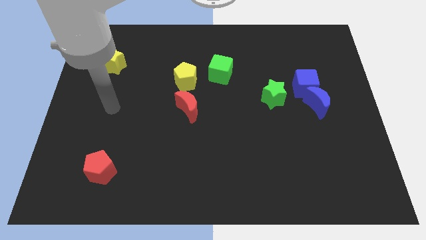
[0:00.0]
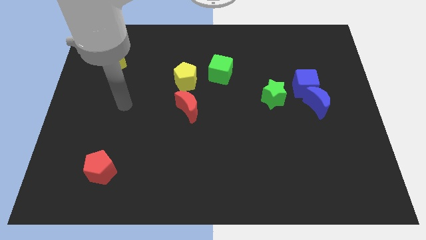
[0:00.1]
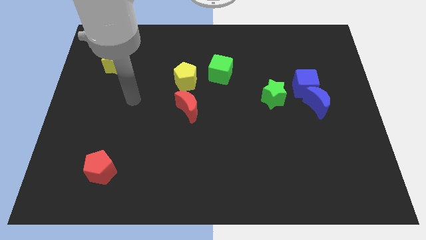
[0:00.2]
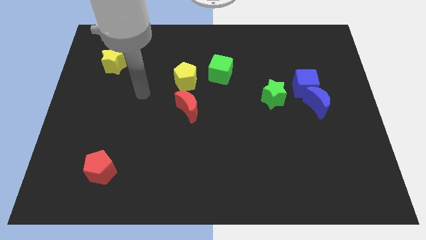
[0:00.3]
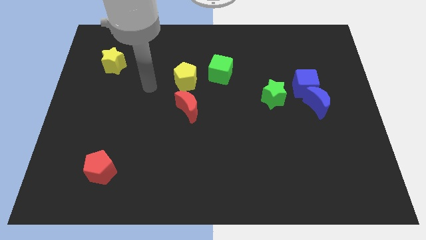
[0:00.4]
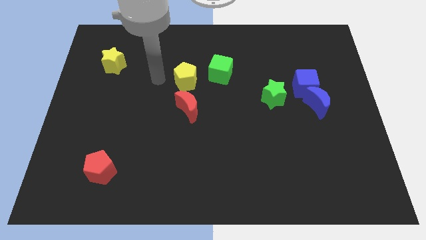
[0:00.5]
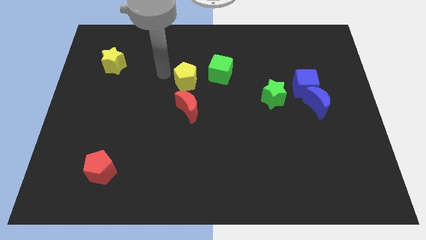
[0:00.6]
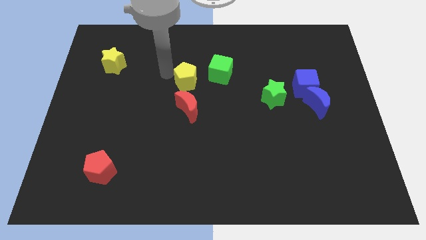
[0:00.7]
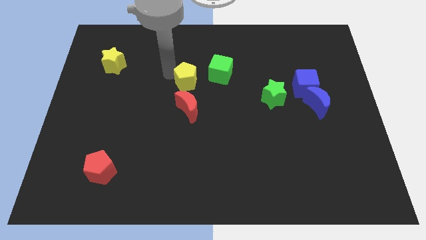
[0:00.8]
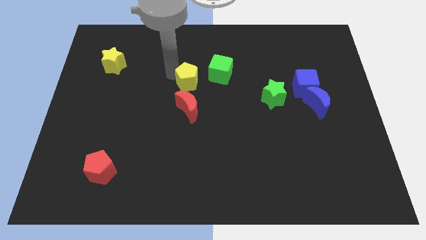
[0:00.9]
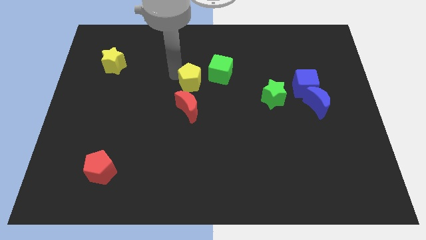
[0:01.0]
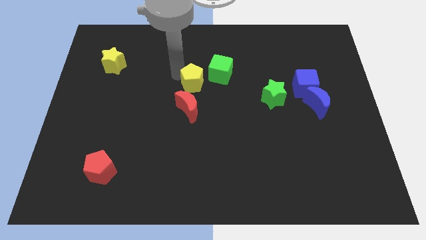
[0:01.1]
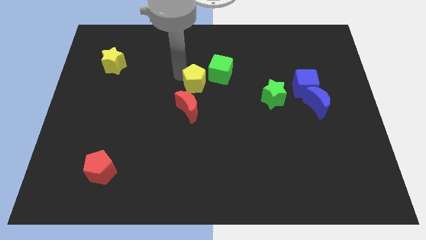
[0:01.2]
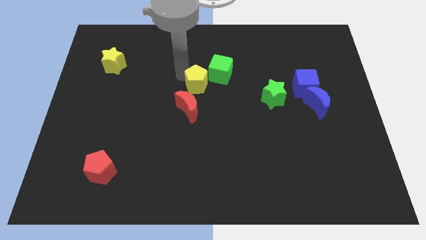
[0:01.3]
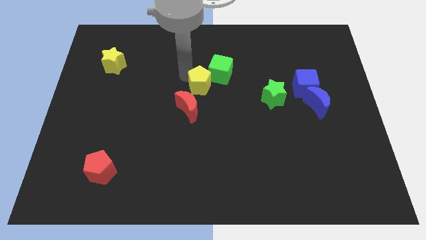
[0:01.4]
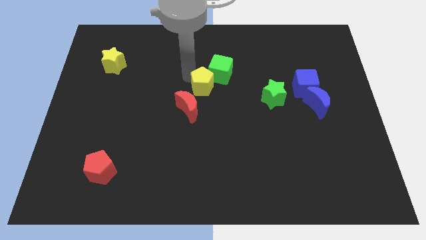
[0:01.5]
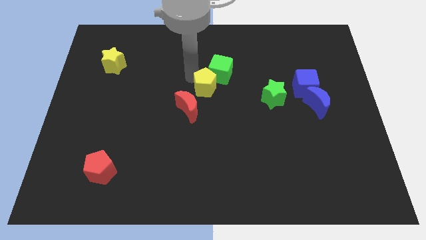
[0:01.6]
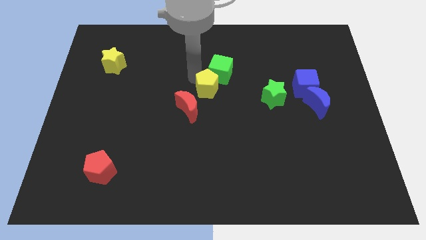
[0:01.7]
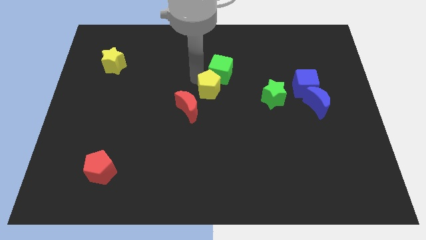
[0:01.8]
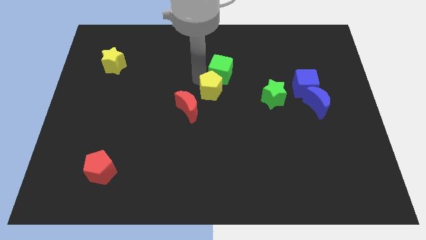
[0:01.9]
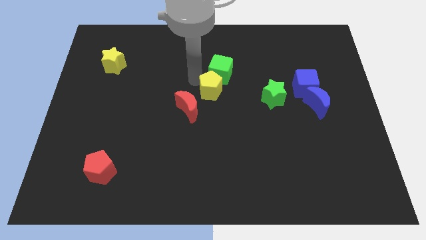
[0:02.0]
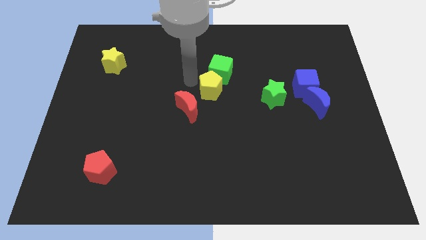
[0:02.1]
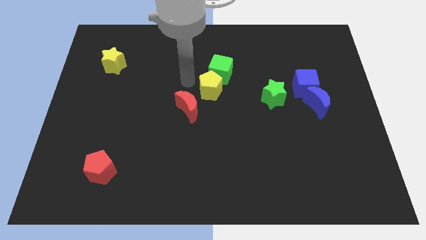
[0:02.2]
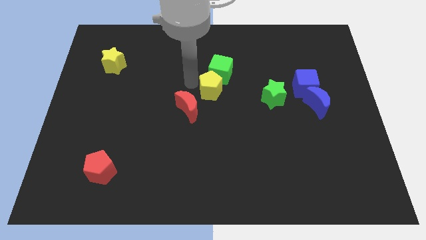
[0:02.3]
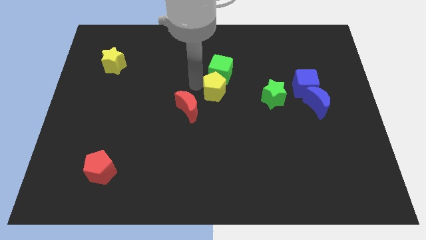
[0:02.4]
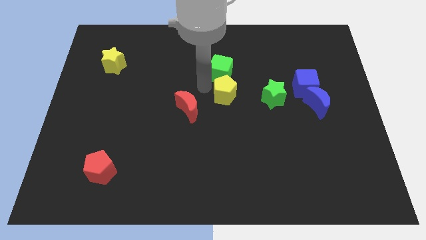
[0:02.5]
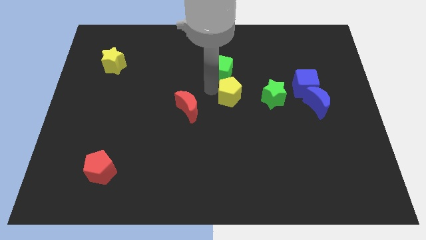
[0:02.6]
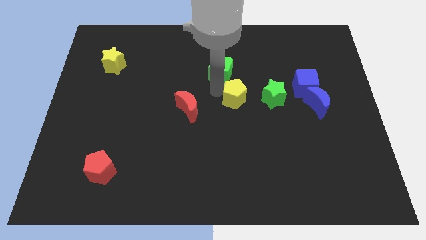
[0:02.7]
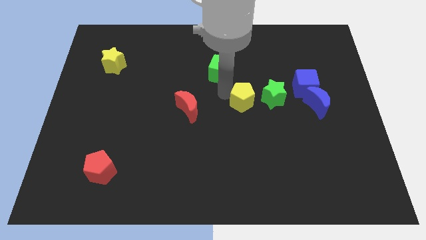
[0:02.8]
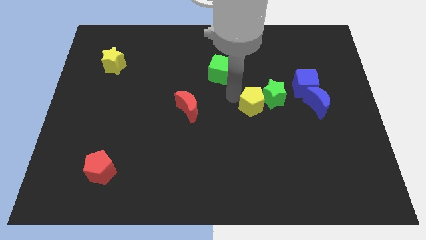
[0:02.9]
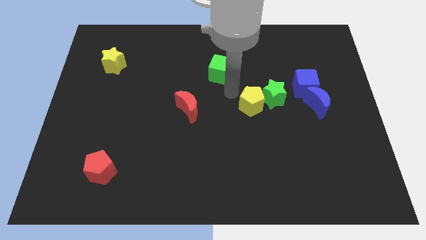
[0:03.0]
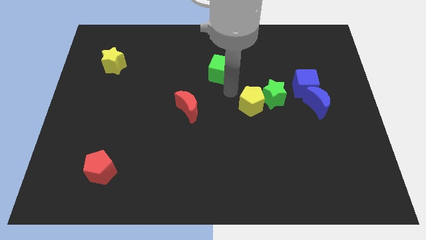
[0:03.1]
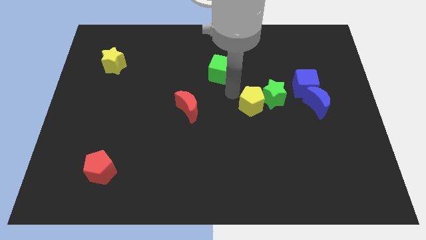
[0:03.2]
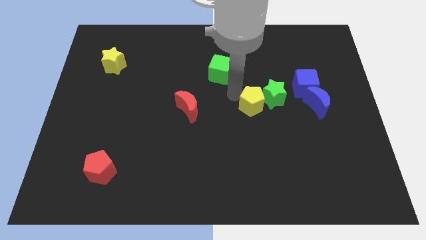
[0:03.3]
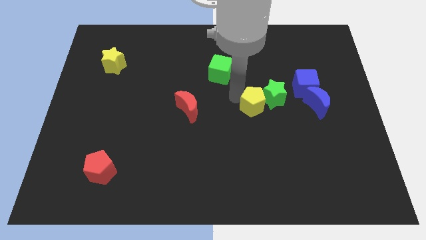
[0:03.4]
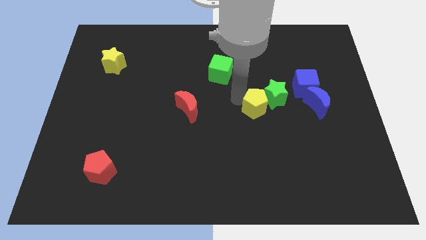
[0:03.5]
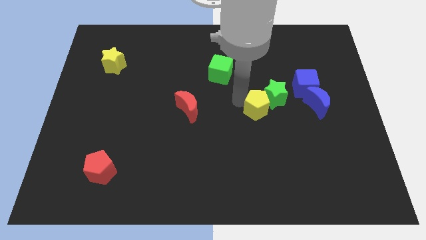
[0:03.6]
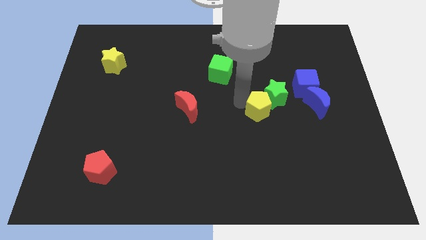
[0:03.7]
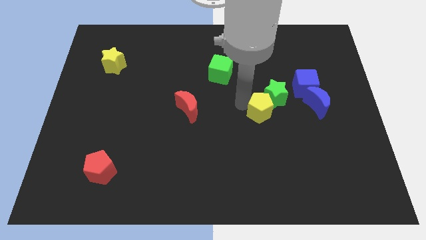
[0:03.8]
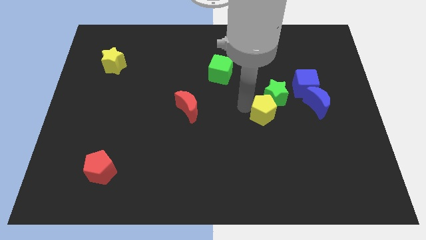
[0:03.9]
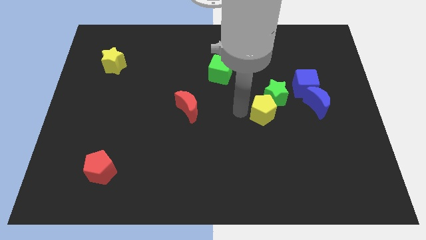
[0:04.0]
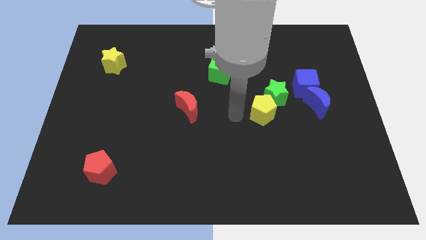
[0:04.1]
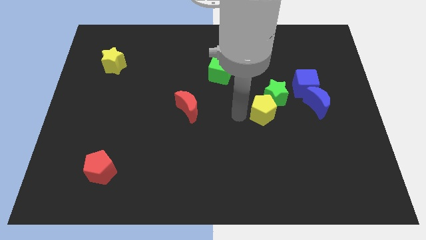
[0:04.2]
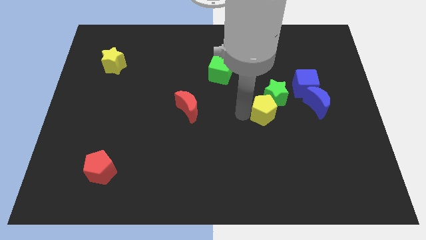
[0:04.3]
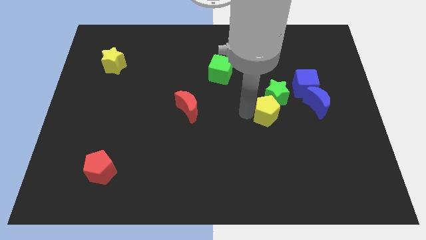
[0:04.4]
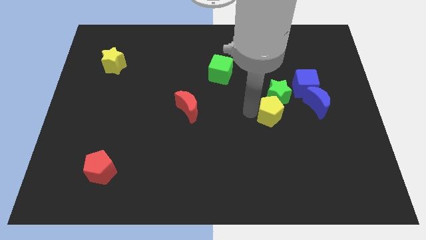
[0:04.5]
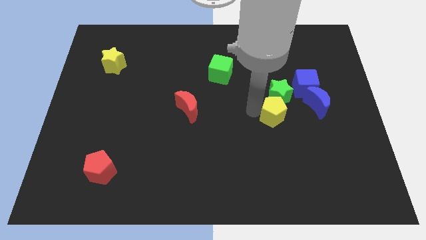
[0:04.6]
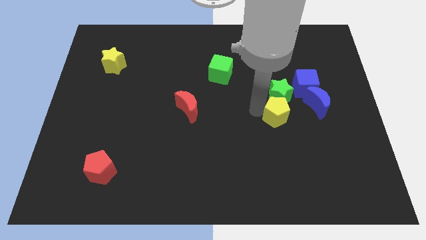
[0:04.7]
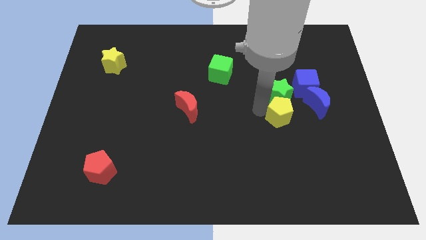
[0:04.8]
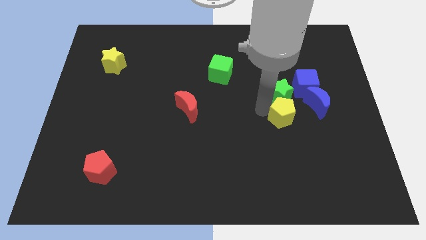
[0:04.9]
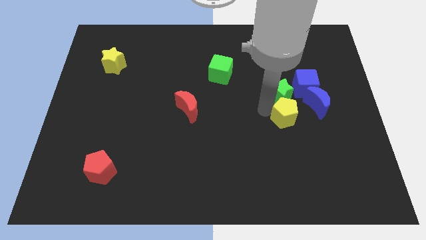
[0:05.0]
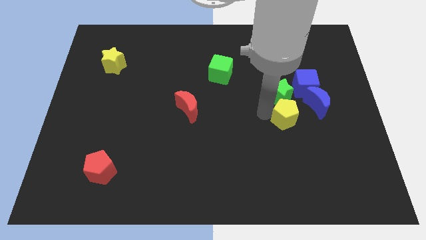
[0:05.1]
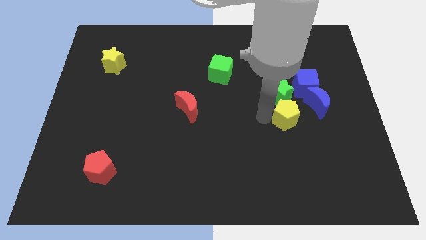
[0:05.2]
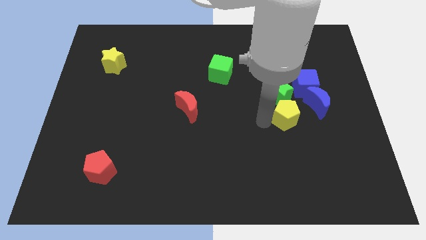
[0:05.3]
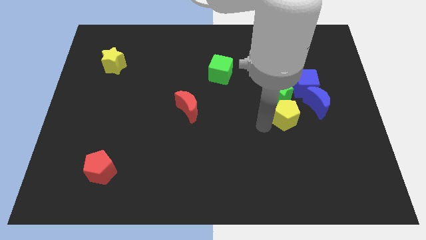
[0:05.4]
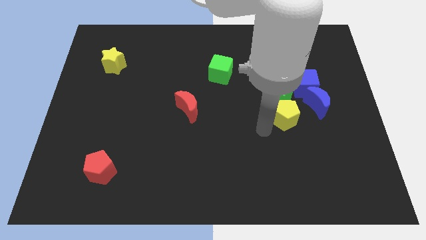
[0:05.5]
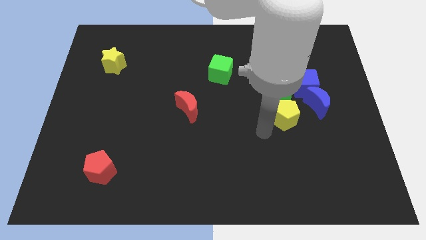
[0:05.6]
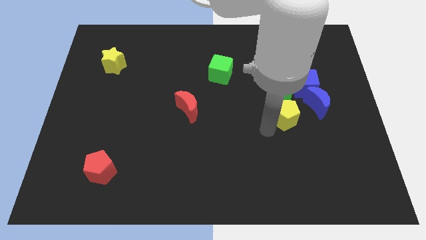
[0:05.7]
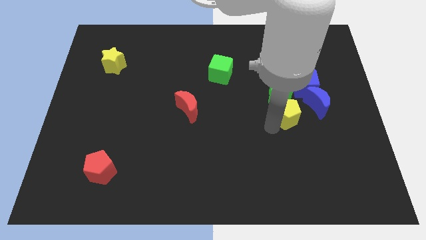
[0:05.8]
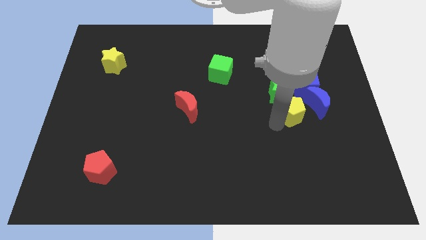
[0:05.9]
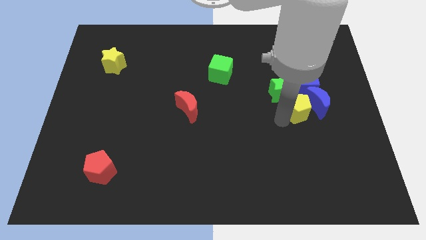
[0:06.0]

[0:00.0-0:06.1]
slide the yellow pentagon next to the blue moon

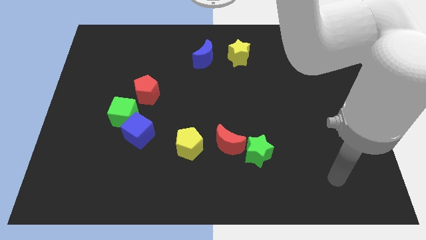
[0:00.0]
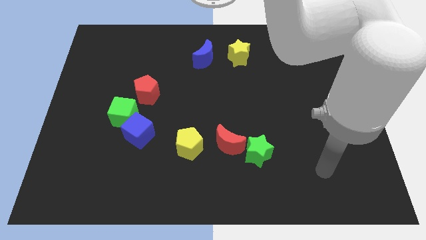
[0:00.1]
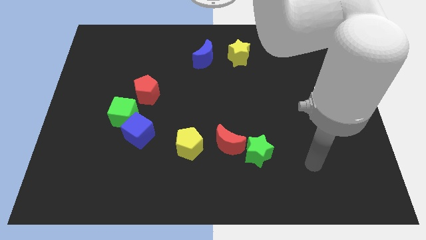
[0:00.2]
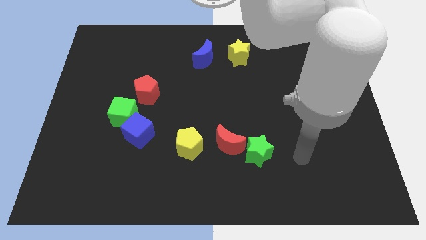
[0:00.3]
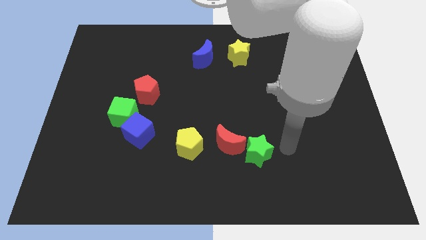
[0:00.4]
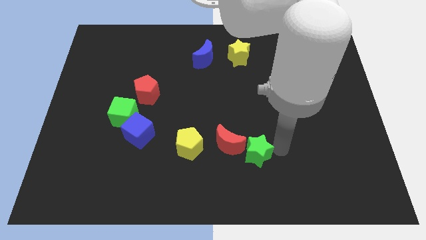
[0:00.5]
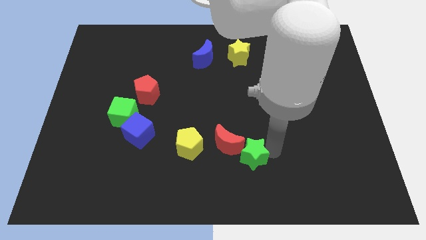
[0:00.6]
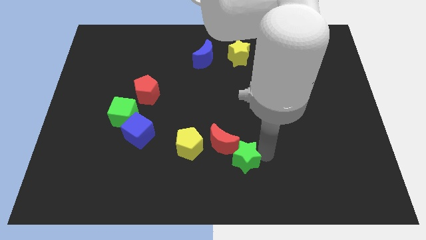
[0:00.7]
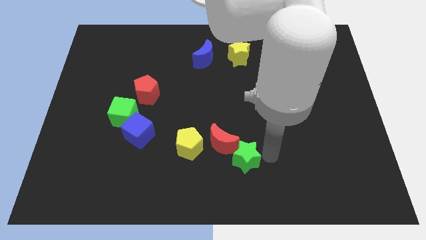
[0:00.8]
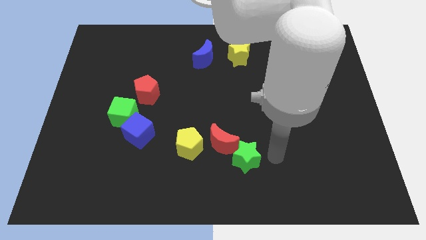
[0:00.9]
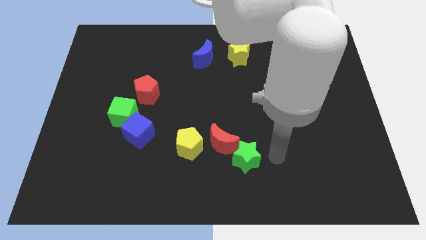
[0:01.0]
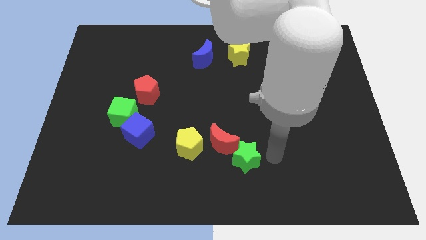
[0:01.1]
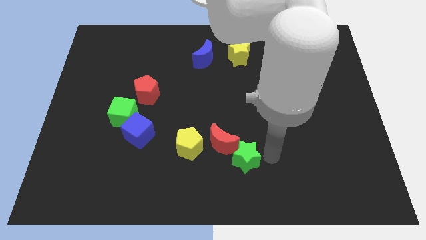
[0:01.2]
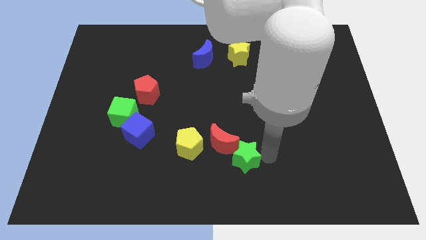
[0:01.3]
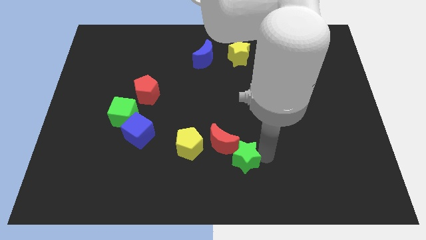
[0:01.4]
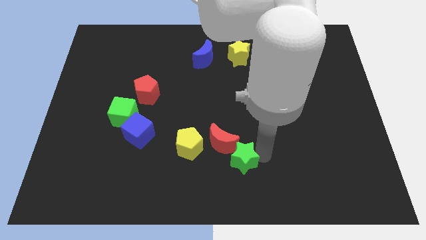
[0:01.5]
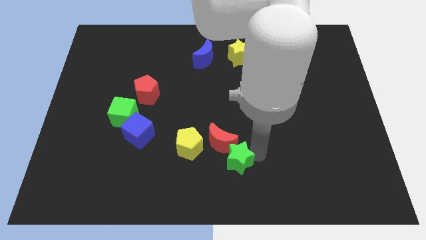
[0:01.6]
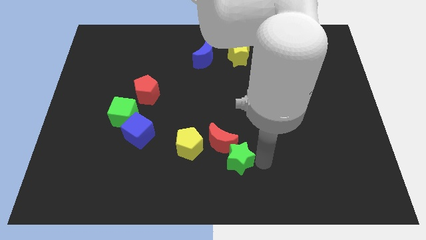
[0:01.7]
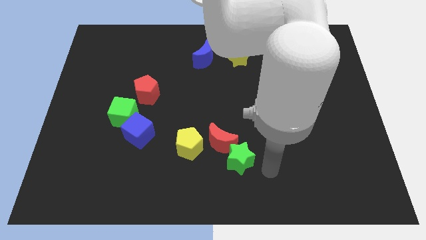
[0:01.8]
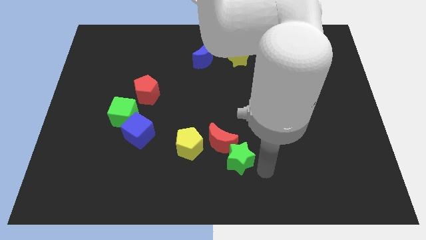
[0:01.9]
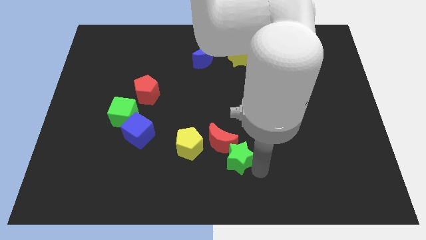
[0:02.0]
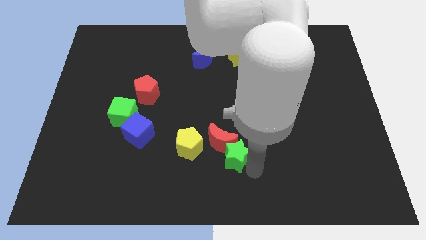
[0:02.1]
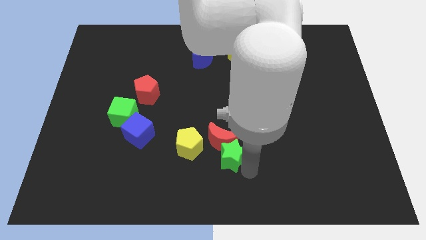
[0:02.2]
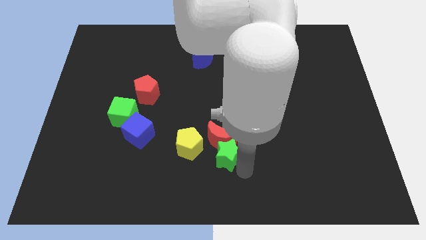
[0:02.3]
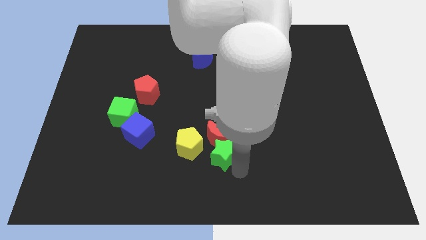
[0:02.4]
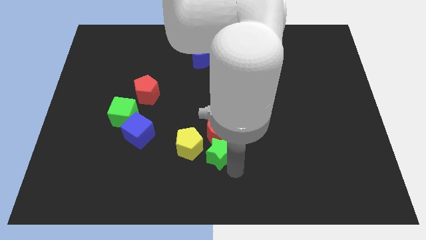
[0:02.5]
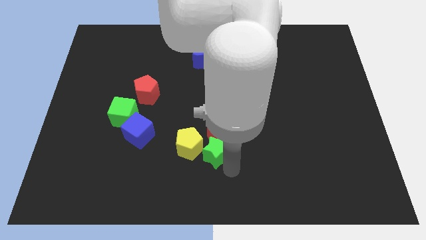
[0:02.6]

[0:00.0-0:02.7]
move the green star close to the yellow pentagon
